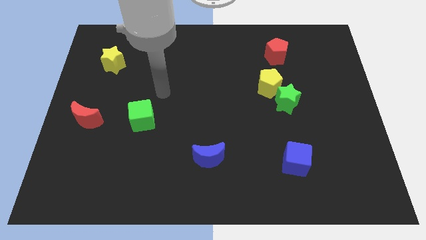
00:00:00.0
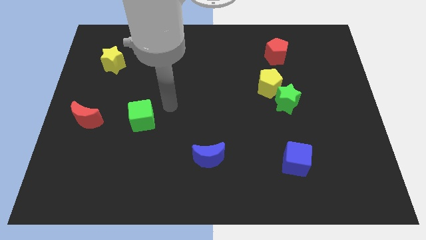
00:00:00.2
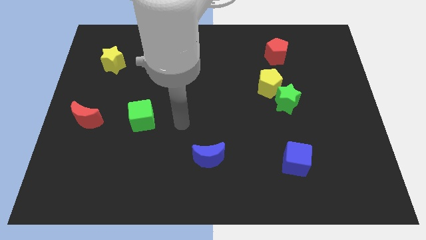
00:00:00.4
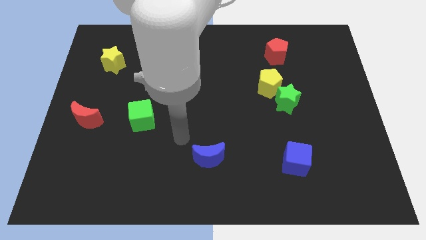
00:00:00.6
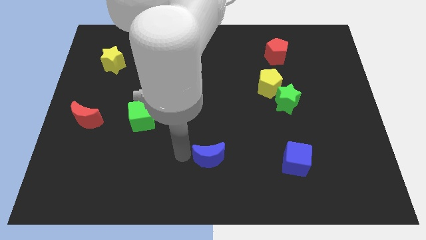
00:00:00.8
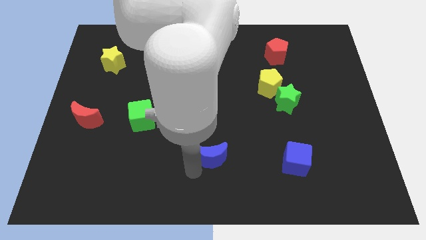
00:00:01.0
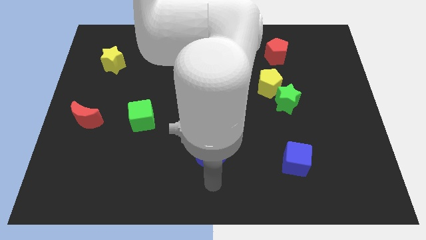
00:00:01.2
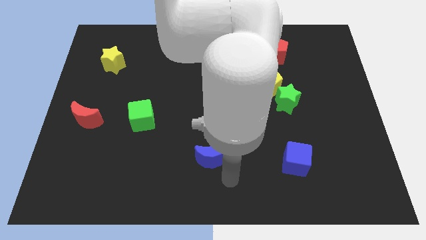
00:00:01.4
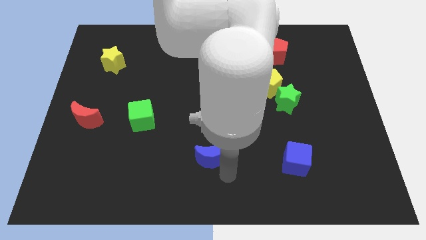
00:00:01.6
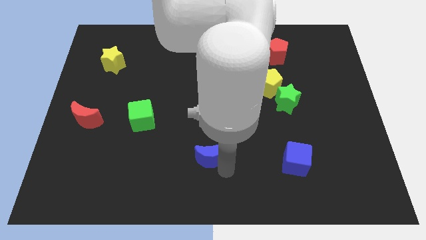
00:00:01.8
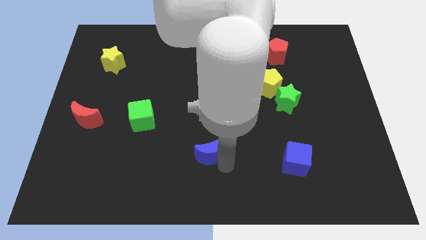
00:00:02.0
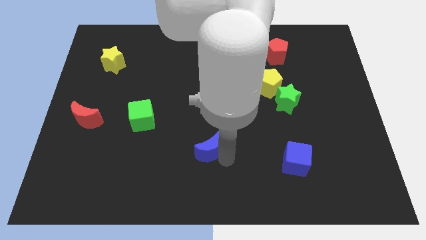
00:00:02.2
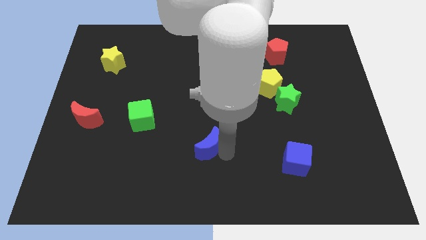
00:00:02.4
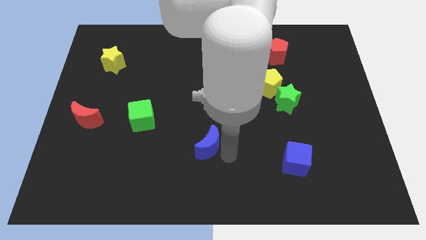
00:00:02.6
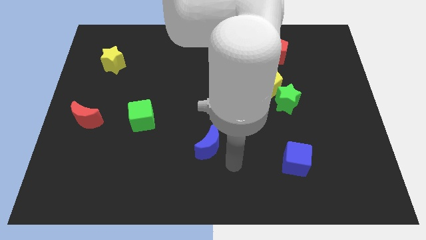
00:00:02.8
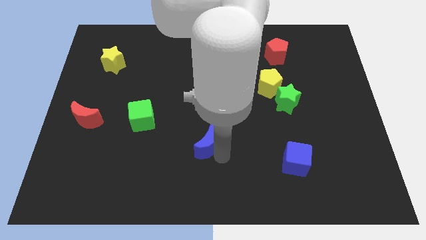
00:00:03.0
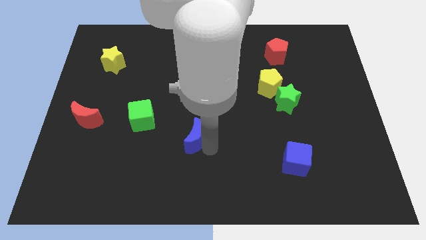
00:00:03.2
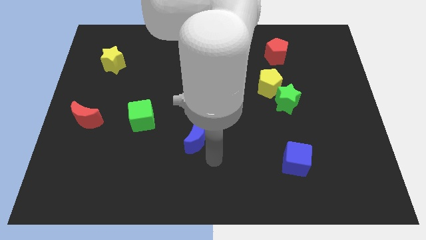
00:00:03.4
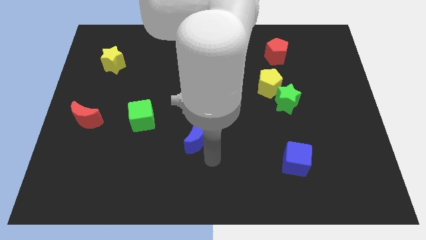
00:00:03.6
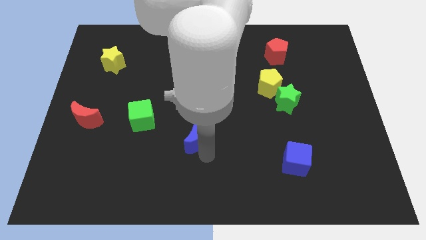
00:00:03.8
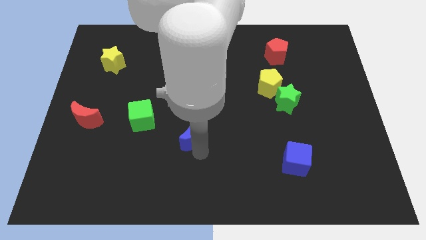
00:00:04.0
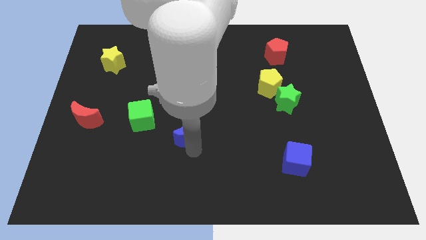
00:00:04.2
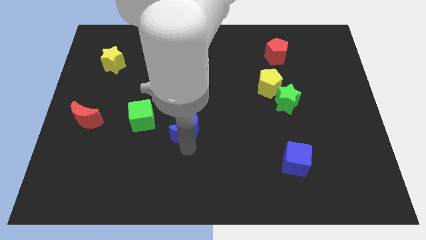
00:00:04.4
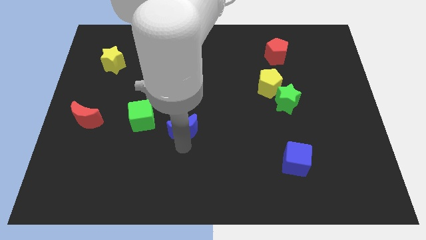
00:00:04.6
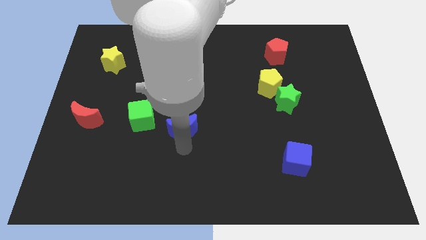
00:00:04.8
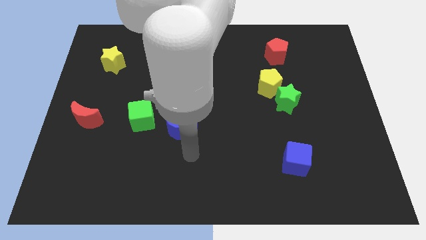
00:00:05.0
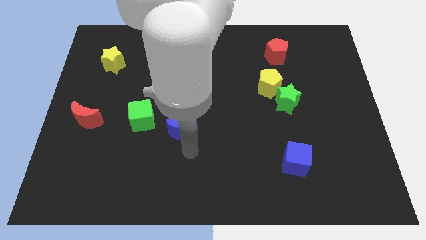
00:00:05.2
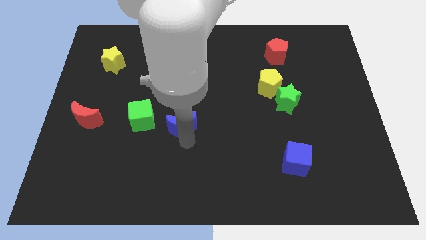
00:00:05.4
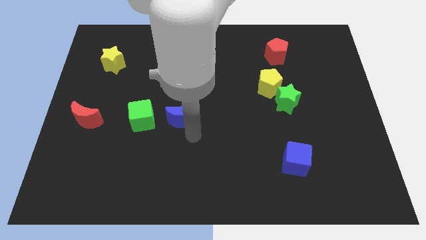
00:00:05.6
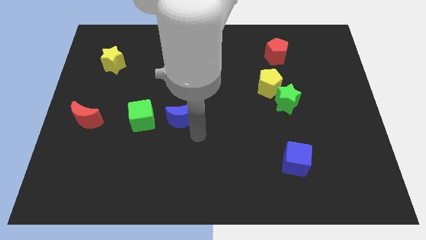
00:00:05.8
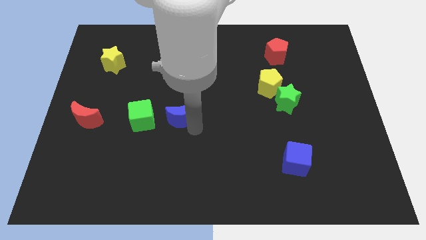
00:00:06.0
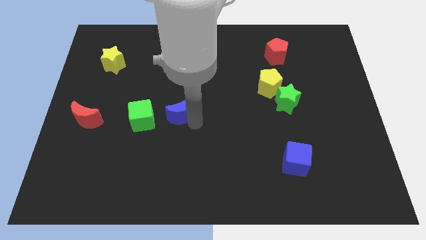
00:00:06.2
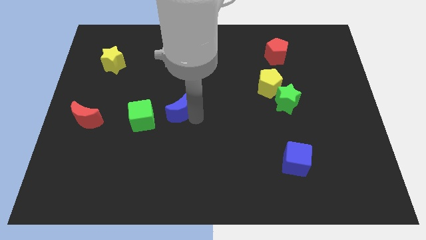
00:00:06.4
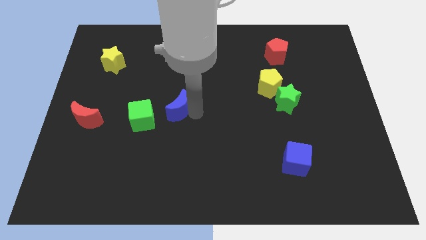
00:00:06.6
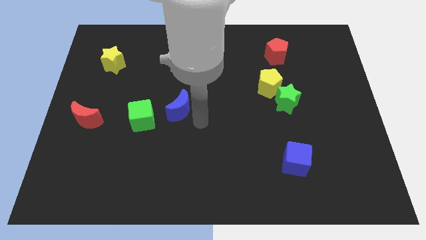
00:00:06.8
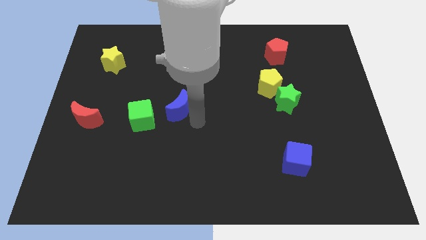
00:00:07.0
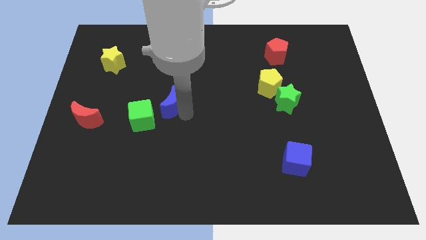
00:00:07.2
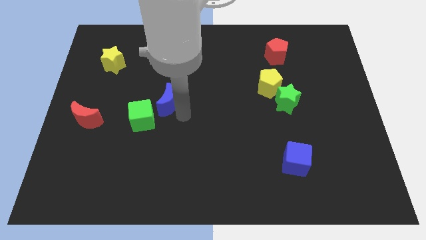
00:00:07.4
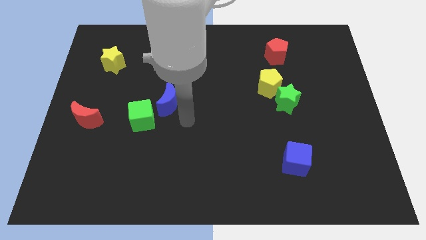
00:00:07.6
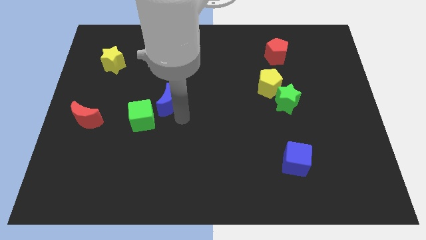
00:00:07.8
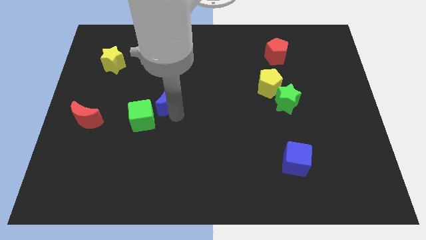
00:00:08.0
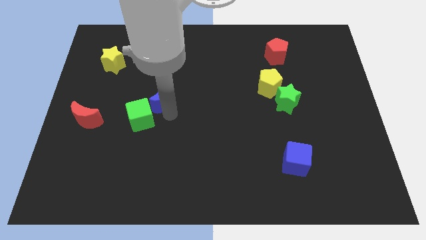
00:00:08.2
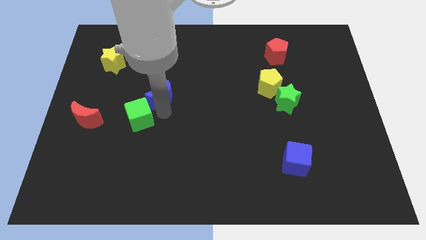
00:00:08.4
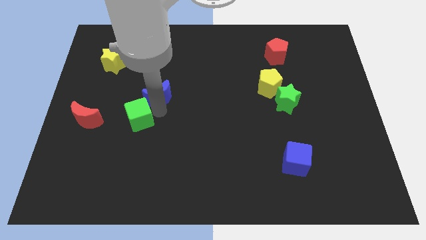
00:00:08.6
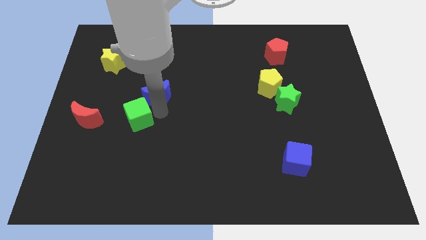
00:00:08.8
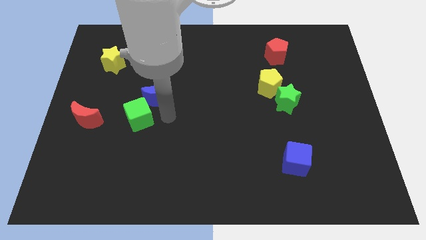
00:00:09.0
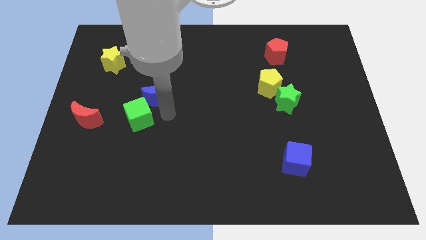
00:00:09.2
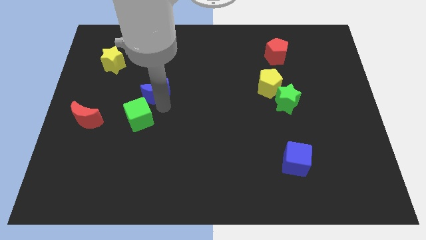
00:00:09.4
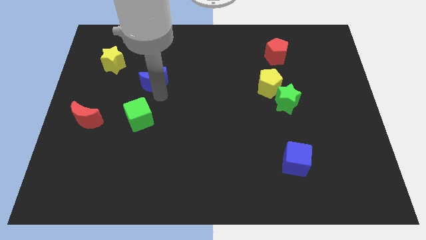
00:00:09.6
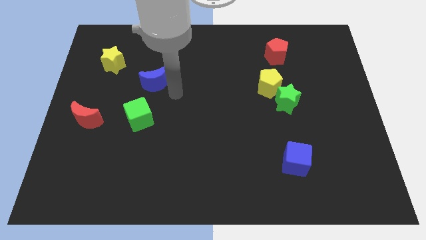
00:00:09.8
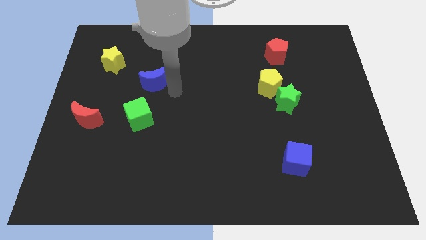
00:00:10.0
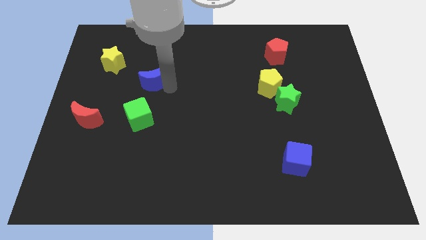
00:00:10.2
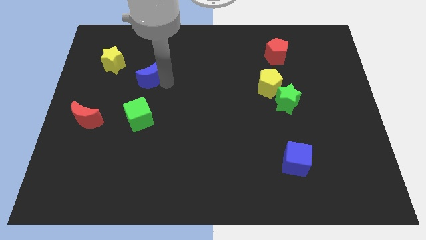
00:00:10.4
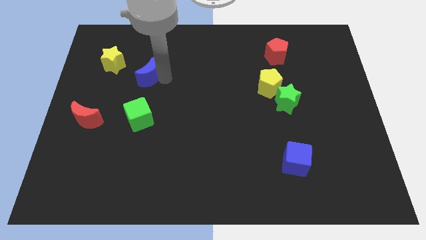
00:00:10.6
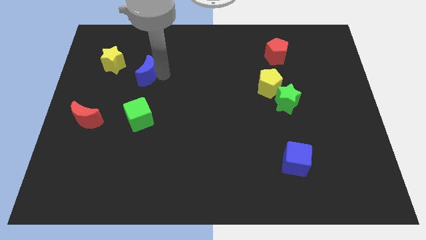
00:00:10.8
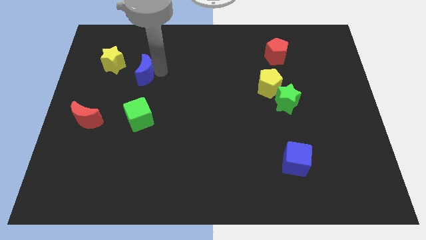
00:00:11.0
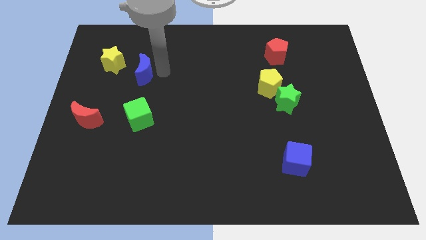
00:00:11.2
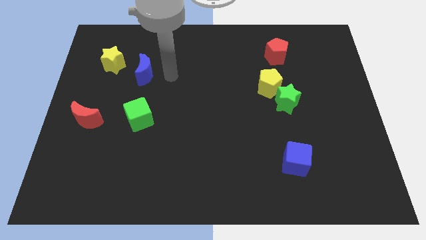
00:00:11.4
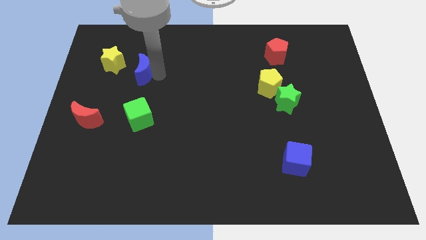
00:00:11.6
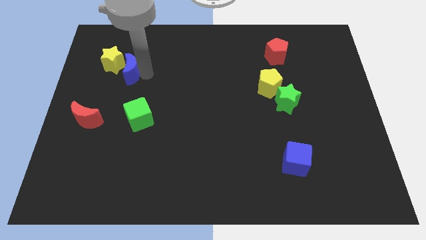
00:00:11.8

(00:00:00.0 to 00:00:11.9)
put the blue moon next to the yellow star

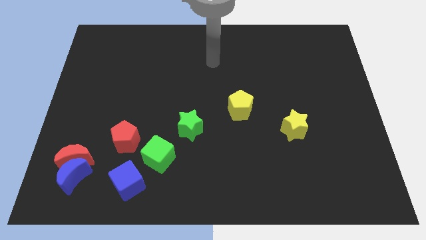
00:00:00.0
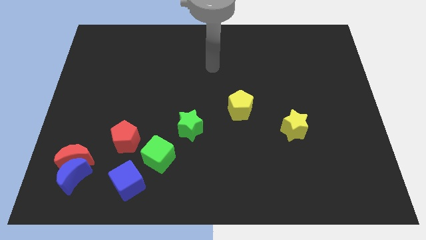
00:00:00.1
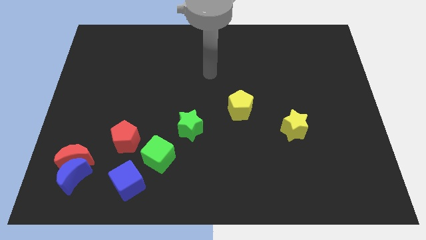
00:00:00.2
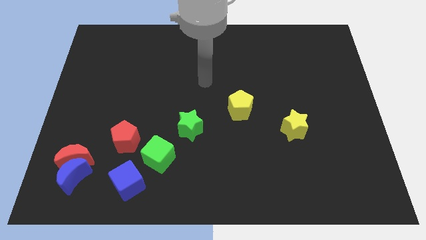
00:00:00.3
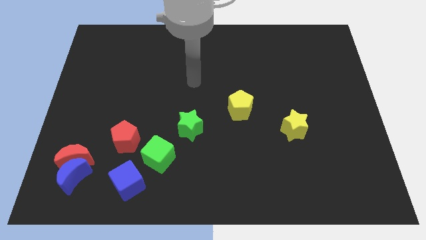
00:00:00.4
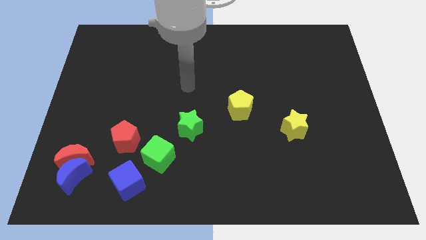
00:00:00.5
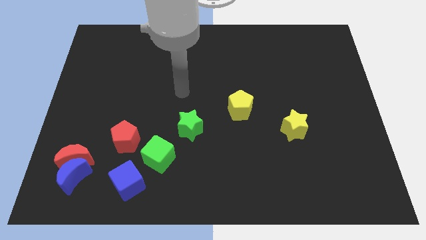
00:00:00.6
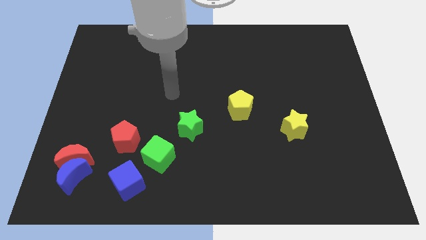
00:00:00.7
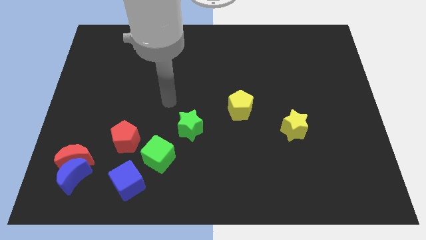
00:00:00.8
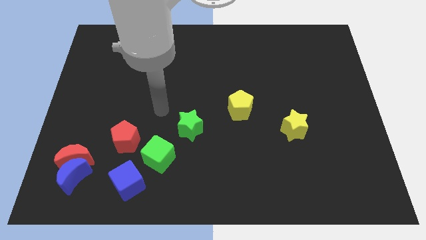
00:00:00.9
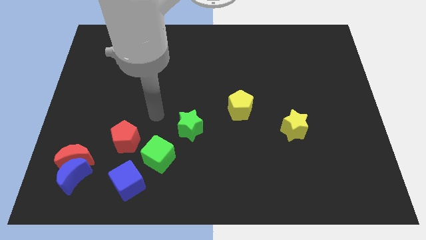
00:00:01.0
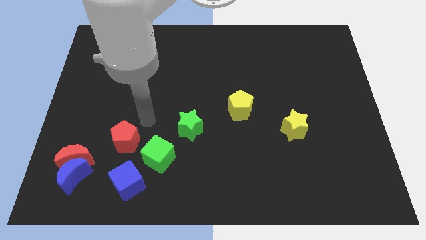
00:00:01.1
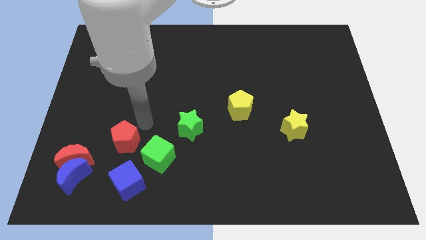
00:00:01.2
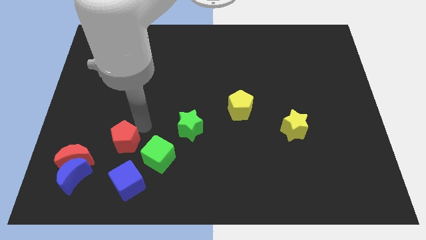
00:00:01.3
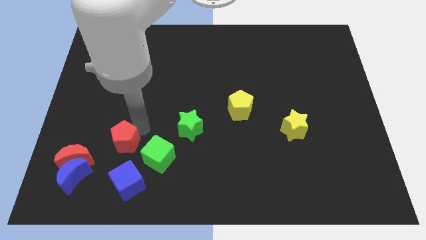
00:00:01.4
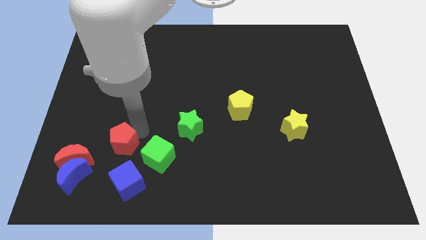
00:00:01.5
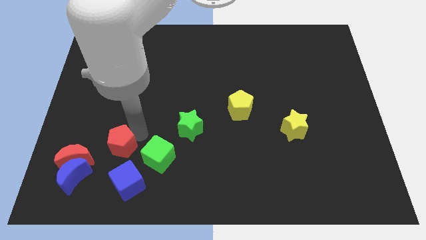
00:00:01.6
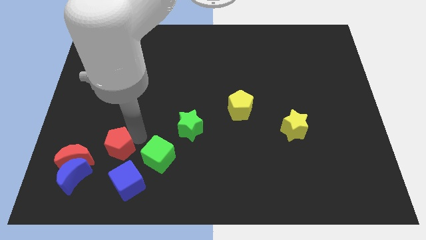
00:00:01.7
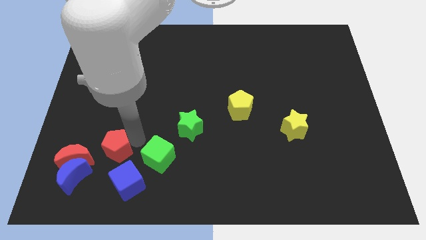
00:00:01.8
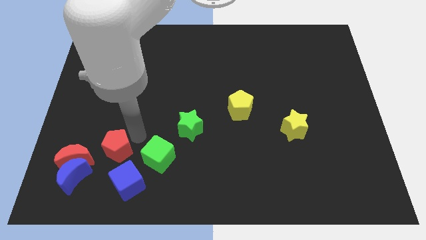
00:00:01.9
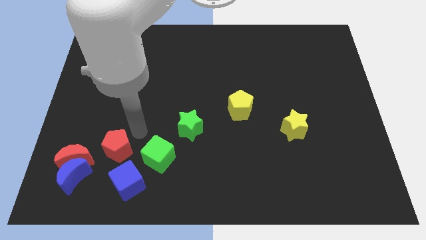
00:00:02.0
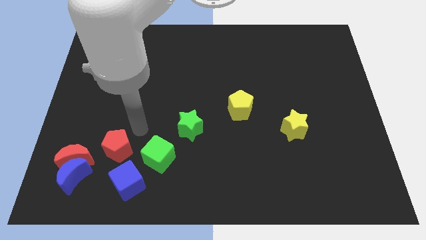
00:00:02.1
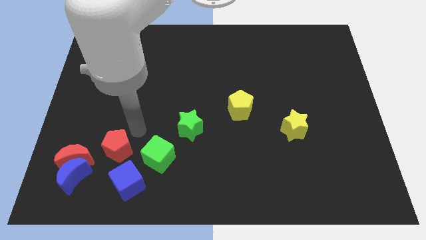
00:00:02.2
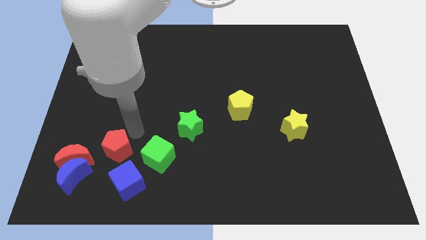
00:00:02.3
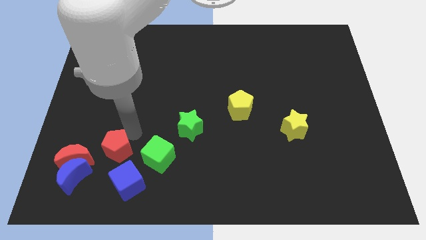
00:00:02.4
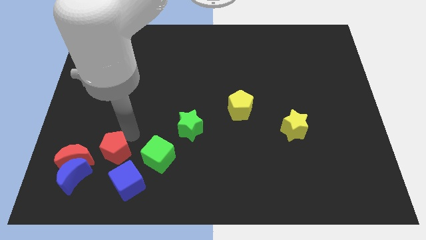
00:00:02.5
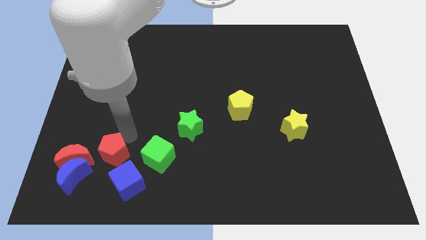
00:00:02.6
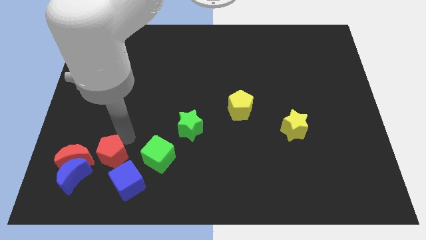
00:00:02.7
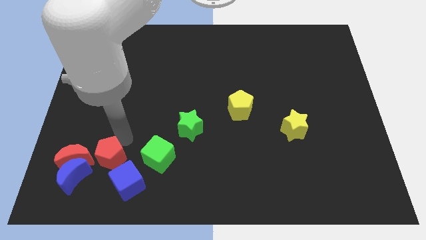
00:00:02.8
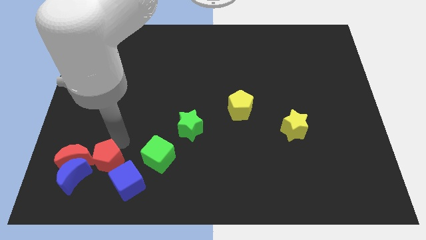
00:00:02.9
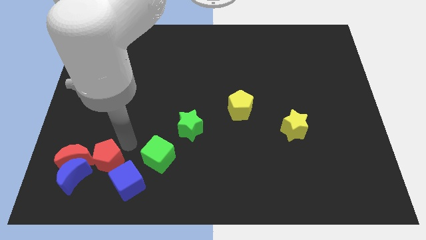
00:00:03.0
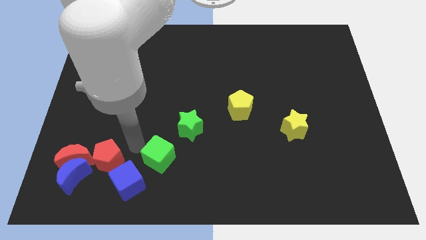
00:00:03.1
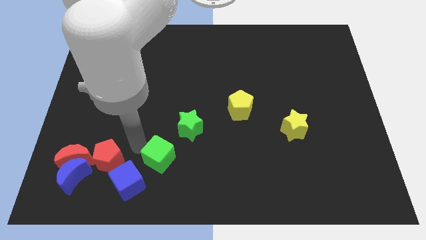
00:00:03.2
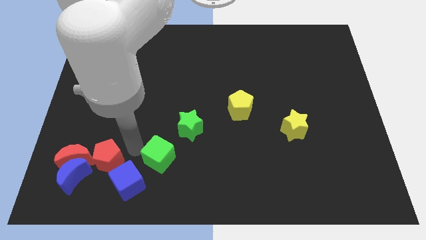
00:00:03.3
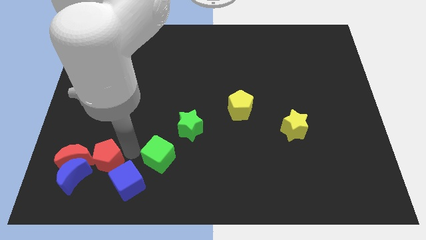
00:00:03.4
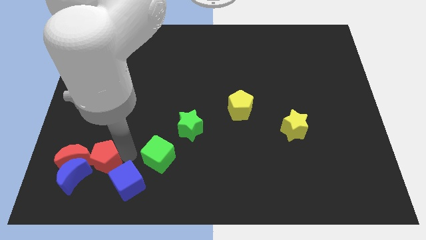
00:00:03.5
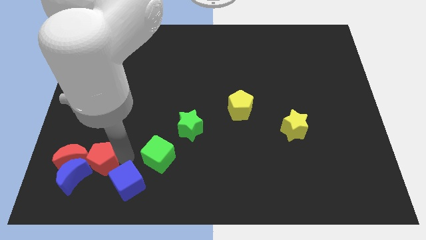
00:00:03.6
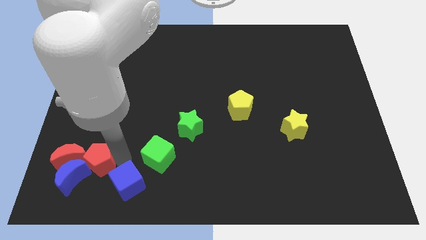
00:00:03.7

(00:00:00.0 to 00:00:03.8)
move the red pentagon to the blue moon
